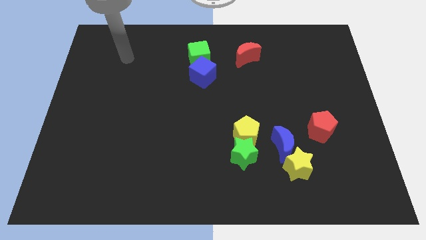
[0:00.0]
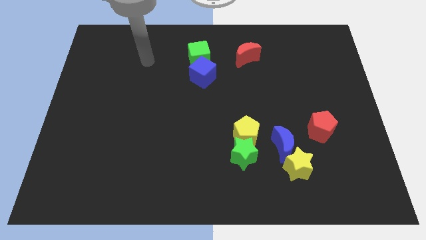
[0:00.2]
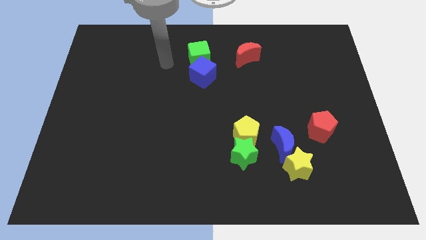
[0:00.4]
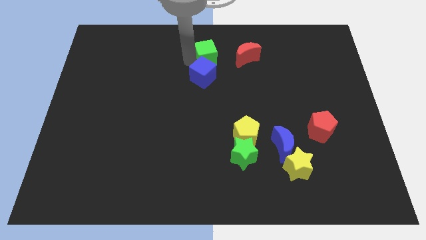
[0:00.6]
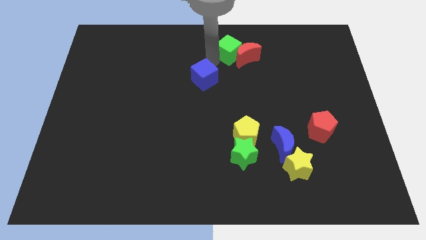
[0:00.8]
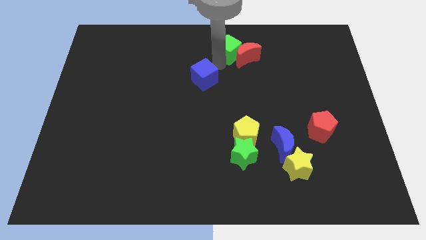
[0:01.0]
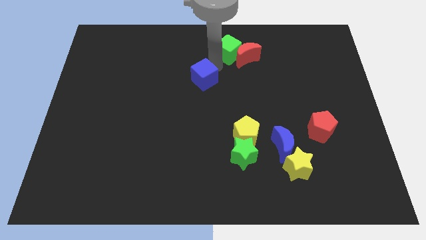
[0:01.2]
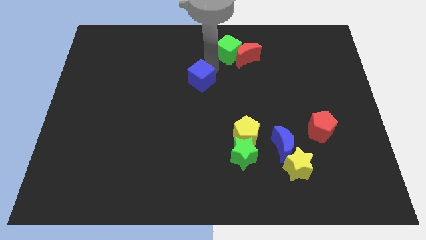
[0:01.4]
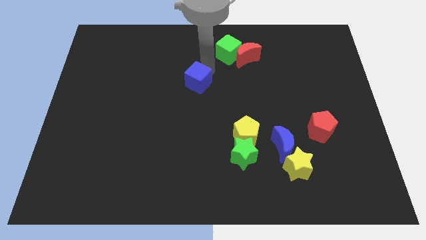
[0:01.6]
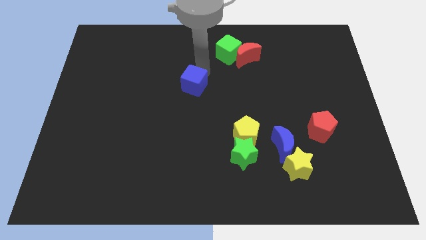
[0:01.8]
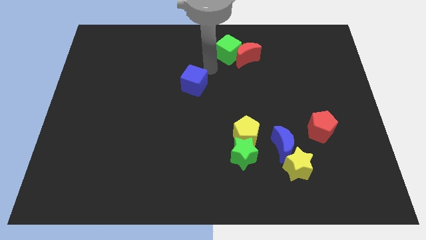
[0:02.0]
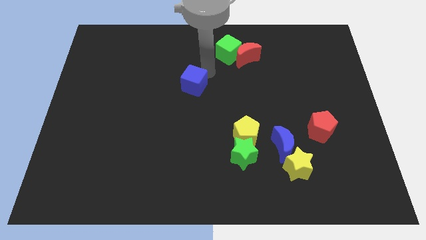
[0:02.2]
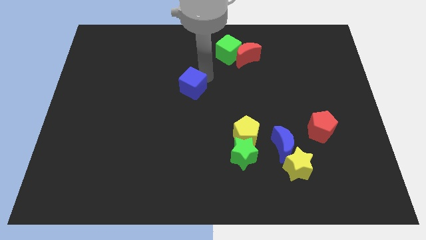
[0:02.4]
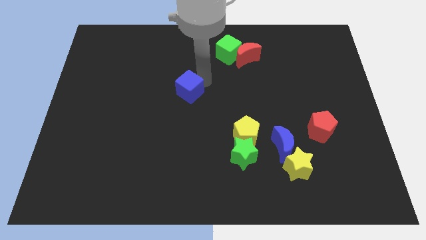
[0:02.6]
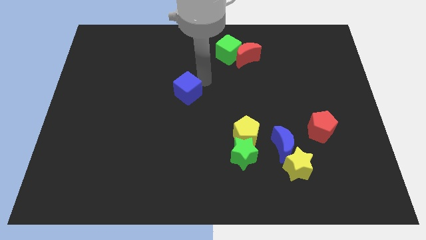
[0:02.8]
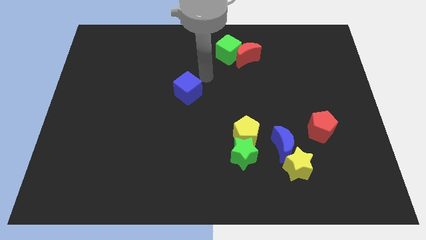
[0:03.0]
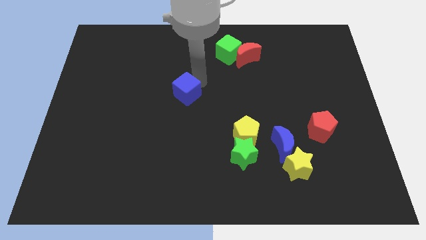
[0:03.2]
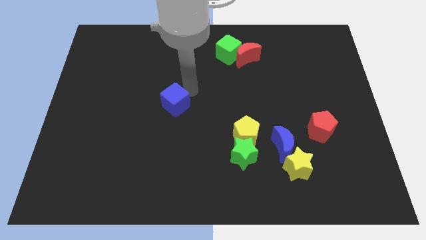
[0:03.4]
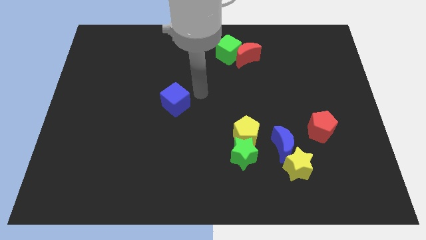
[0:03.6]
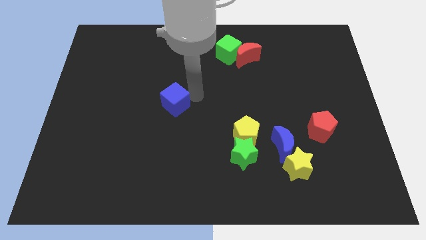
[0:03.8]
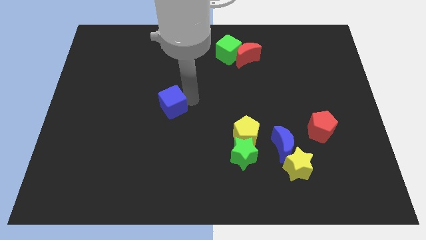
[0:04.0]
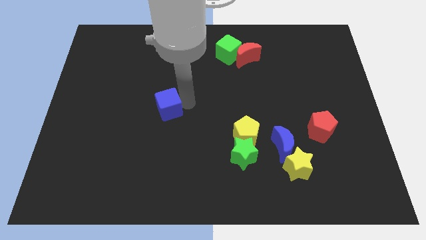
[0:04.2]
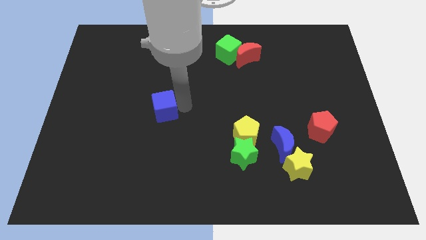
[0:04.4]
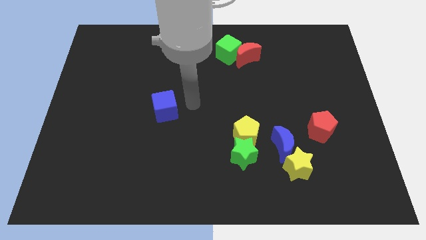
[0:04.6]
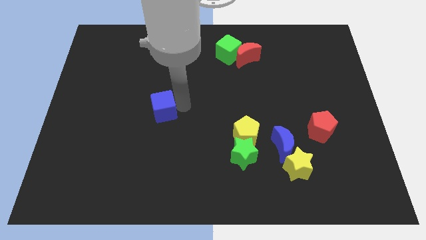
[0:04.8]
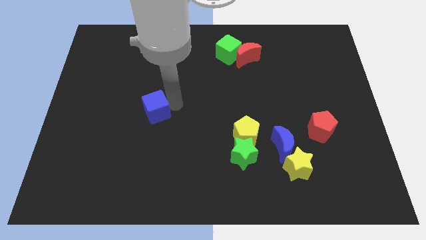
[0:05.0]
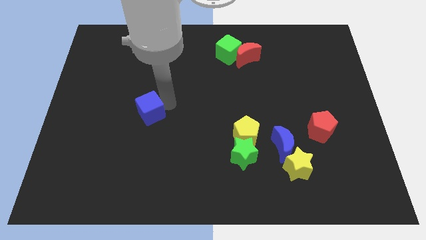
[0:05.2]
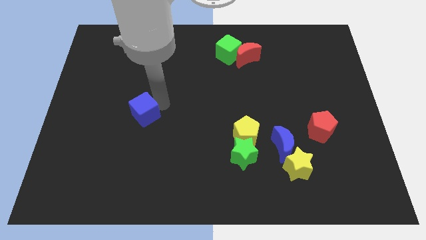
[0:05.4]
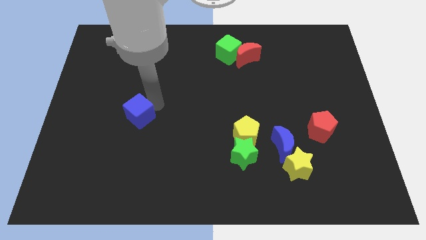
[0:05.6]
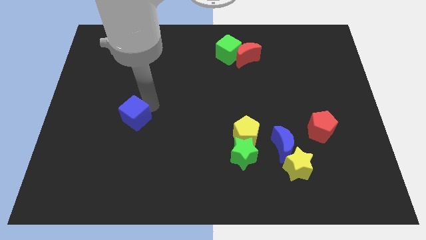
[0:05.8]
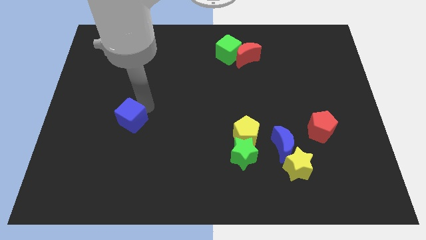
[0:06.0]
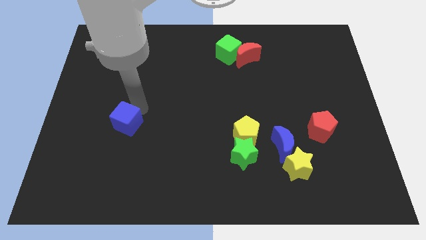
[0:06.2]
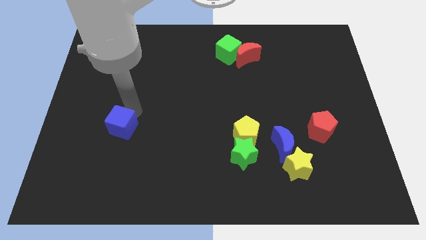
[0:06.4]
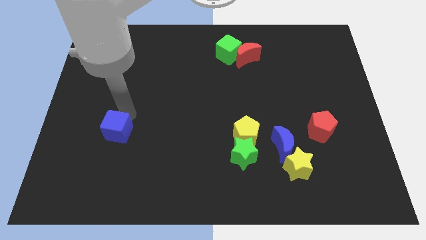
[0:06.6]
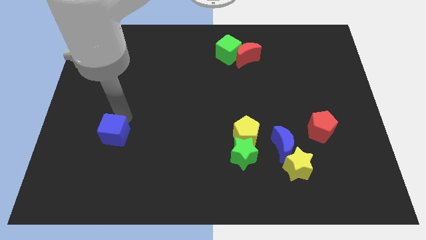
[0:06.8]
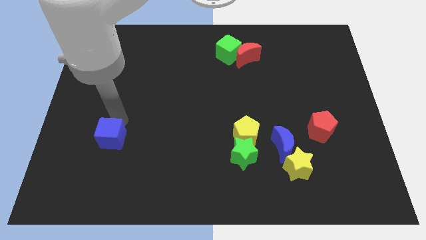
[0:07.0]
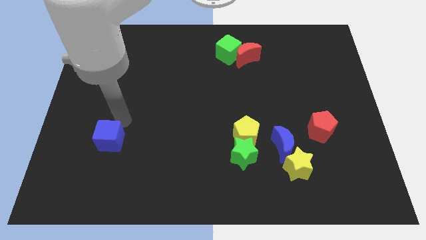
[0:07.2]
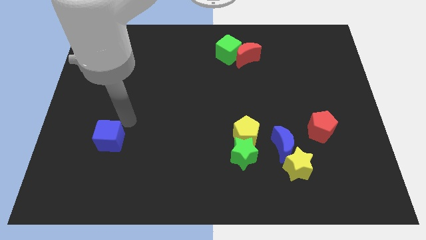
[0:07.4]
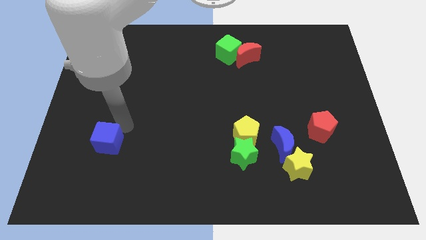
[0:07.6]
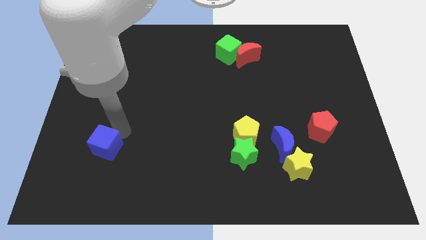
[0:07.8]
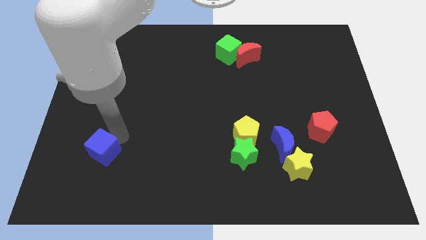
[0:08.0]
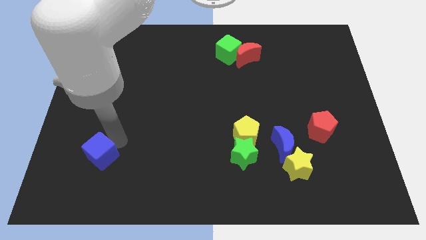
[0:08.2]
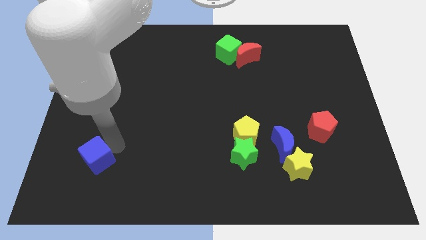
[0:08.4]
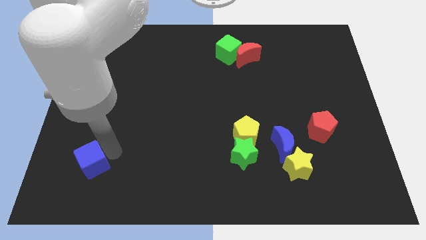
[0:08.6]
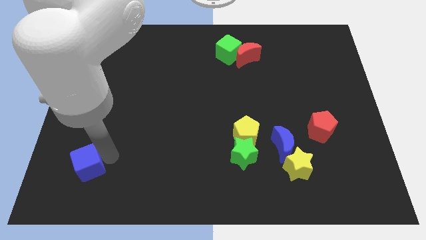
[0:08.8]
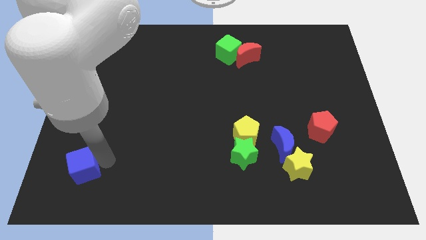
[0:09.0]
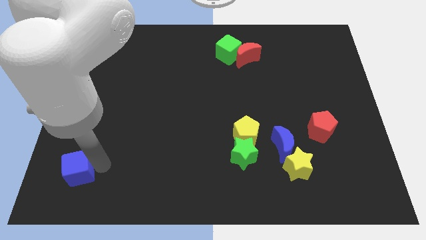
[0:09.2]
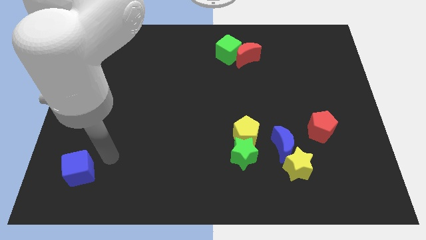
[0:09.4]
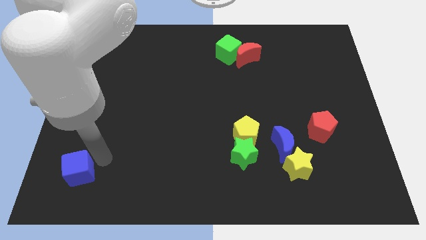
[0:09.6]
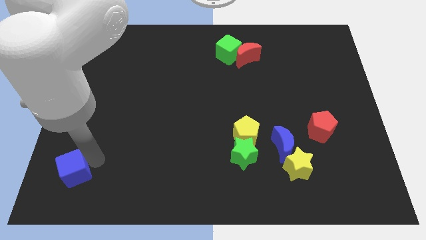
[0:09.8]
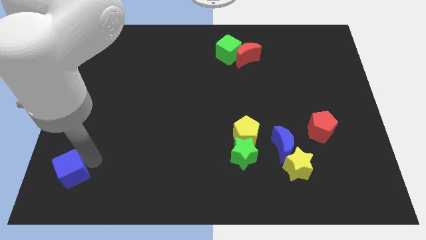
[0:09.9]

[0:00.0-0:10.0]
slide the blue cube to the bottom left of the board

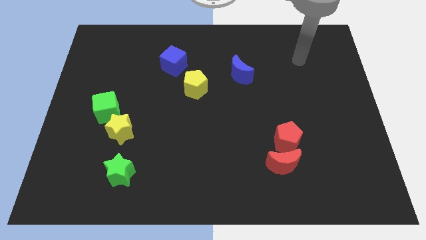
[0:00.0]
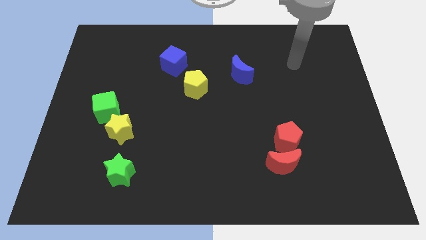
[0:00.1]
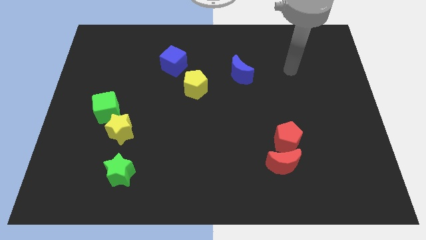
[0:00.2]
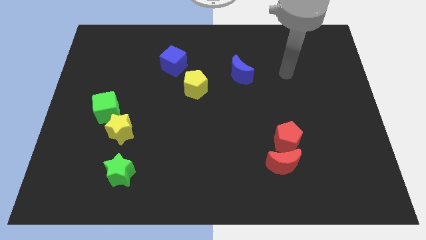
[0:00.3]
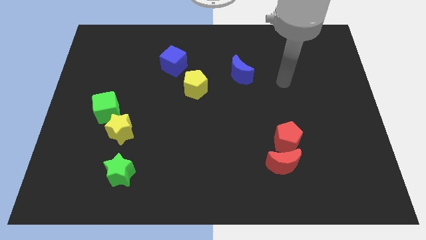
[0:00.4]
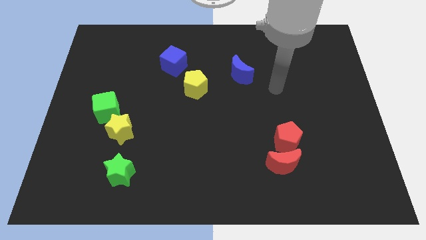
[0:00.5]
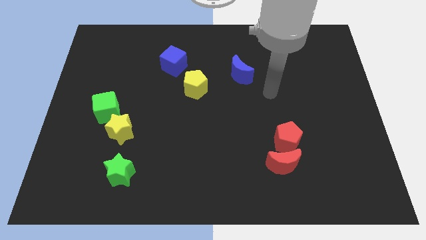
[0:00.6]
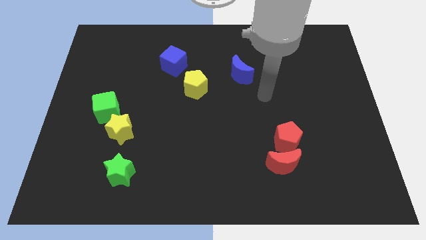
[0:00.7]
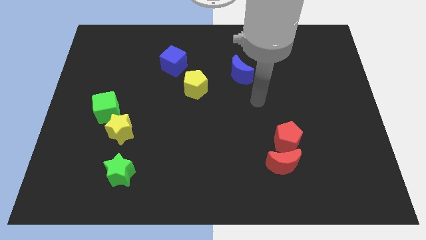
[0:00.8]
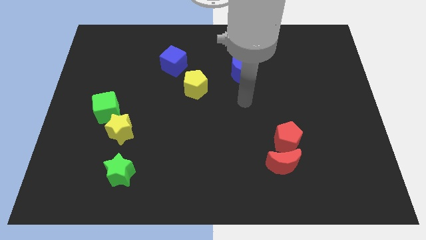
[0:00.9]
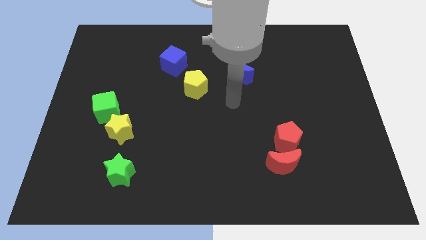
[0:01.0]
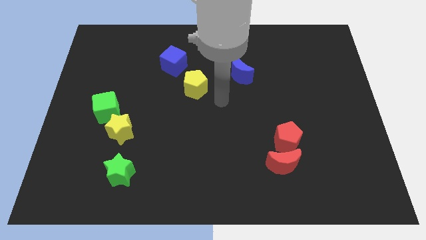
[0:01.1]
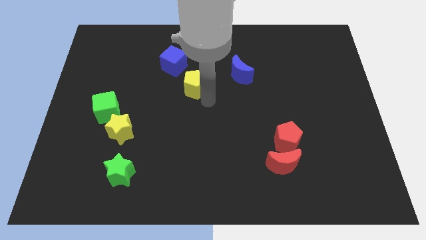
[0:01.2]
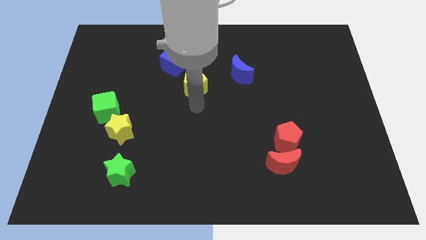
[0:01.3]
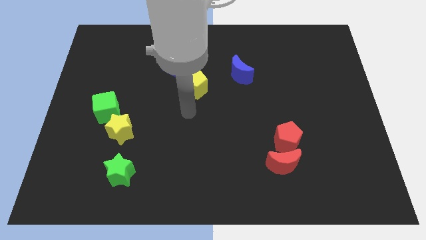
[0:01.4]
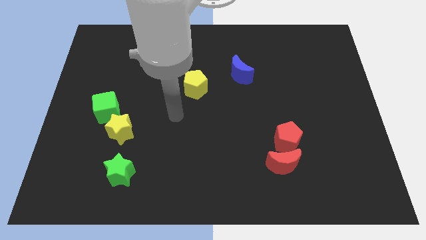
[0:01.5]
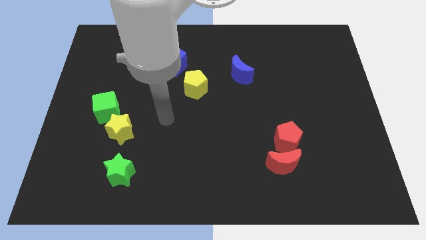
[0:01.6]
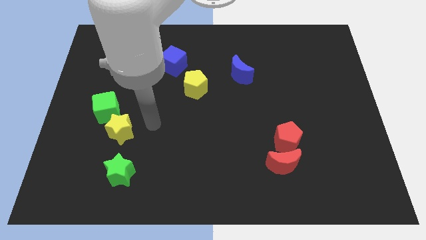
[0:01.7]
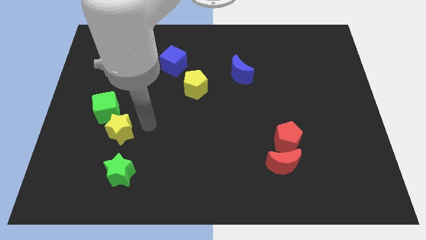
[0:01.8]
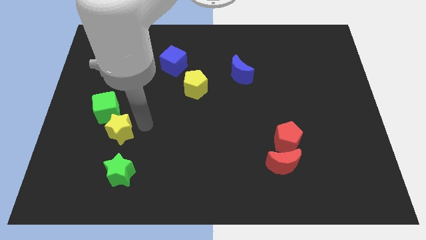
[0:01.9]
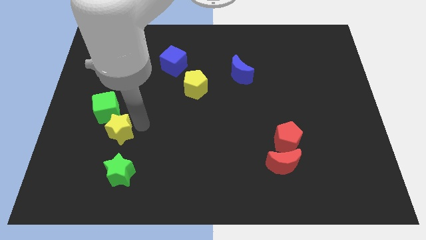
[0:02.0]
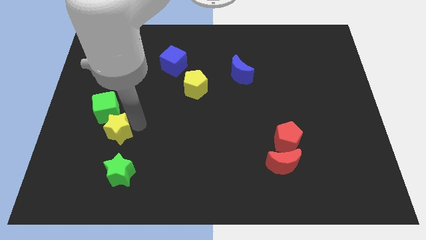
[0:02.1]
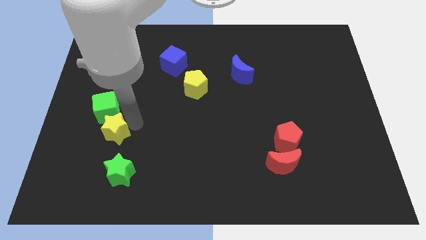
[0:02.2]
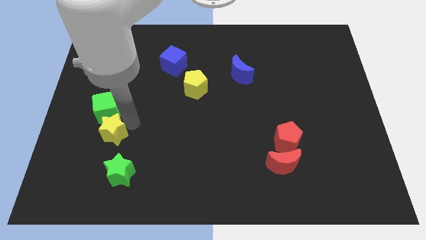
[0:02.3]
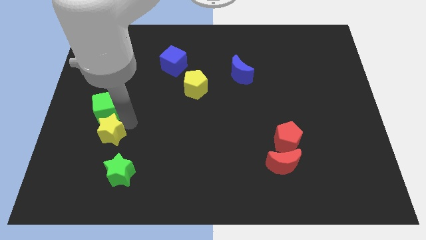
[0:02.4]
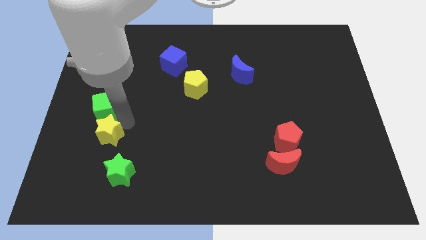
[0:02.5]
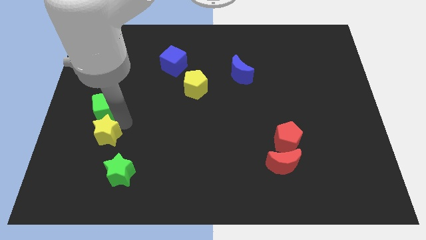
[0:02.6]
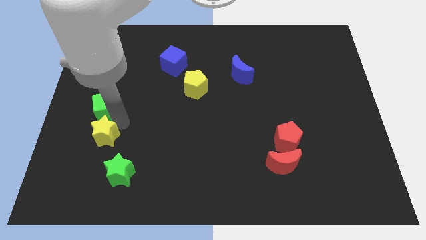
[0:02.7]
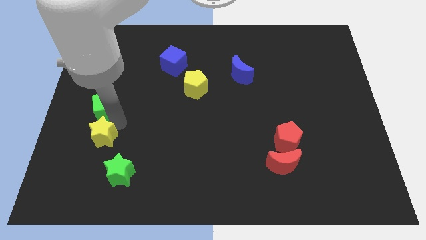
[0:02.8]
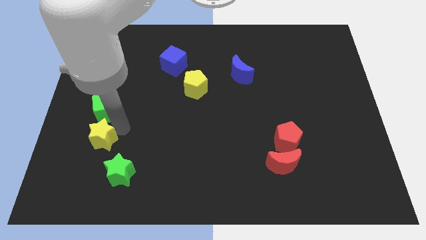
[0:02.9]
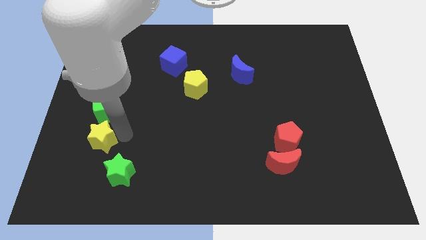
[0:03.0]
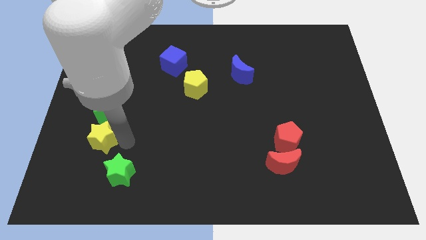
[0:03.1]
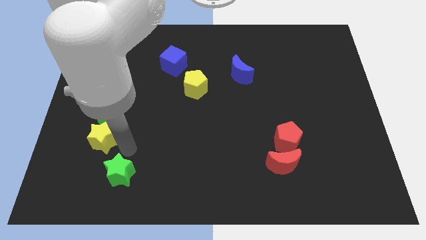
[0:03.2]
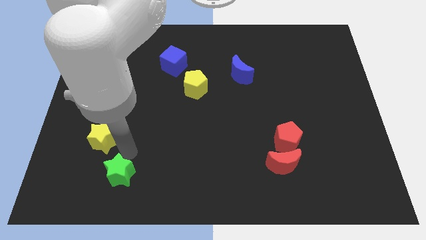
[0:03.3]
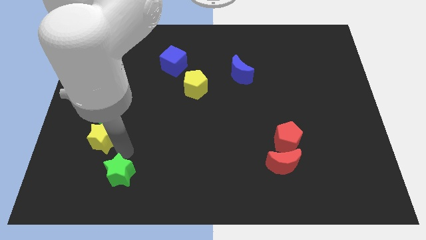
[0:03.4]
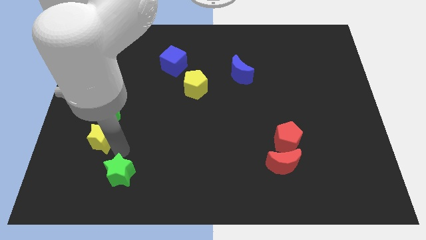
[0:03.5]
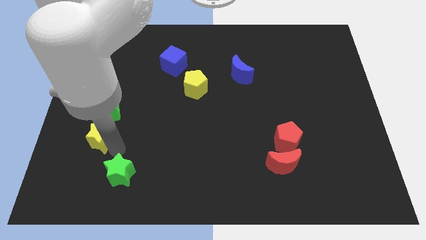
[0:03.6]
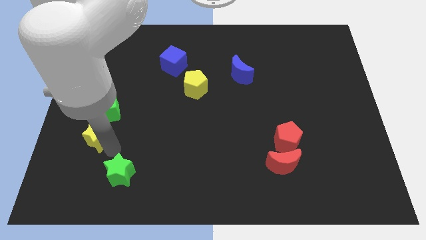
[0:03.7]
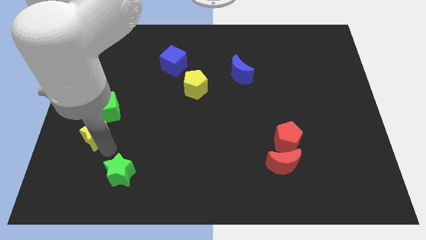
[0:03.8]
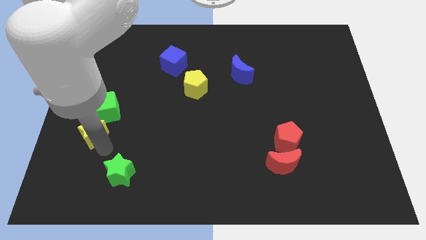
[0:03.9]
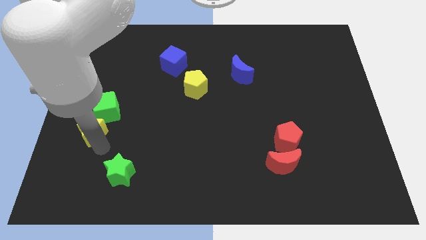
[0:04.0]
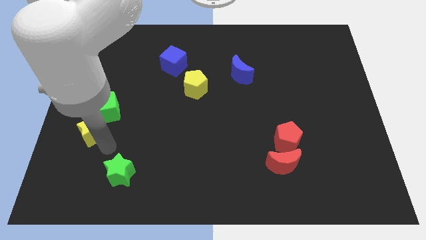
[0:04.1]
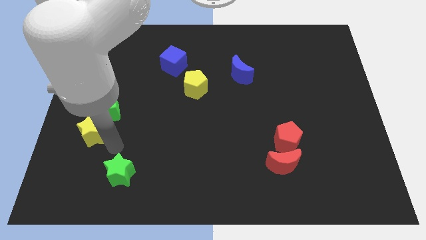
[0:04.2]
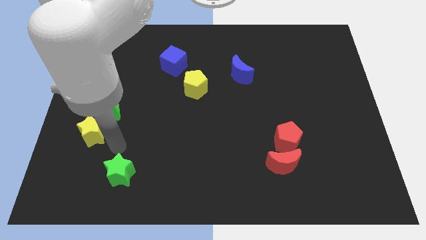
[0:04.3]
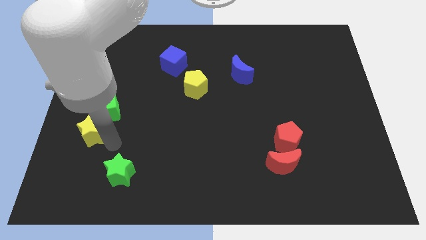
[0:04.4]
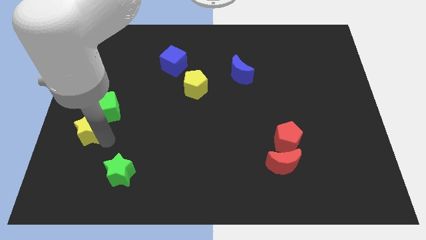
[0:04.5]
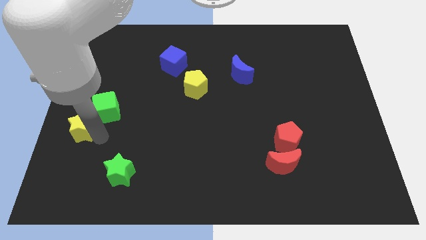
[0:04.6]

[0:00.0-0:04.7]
push the yellow star to the left side
